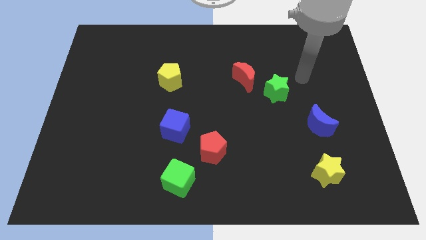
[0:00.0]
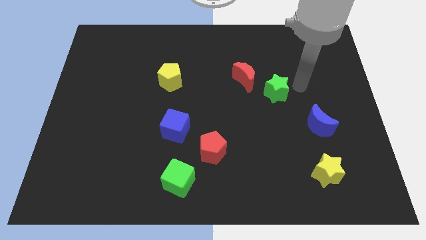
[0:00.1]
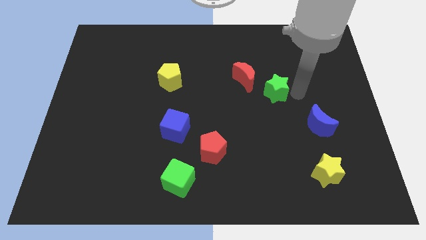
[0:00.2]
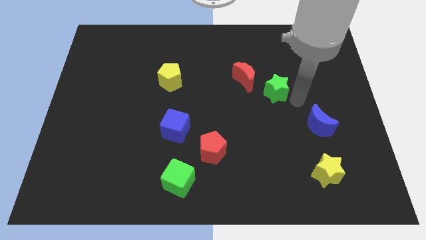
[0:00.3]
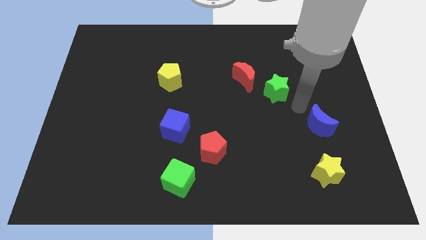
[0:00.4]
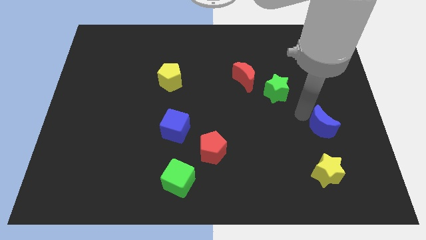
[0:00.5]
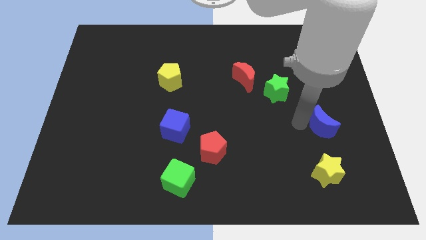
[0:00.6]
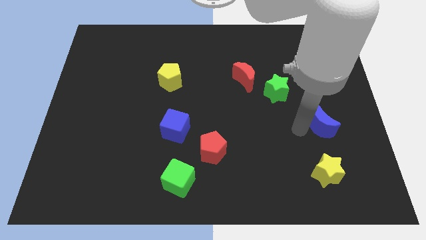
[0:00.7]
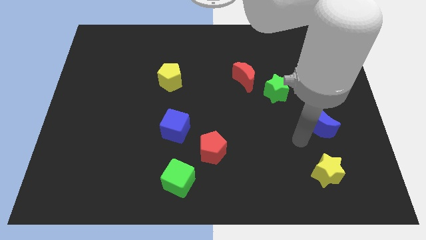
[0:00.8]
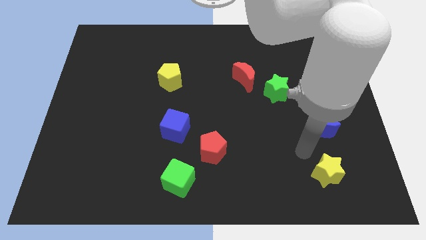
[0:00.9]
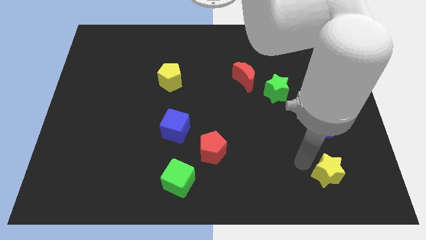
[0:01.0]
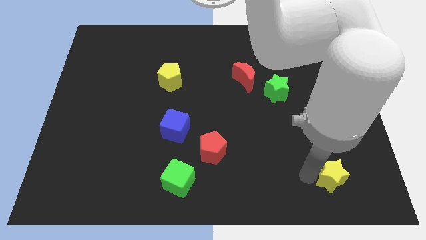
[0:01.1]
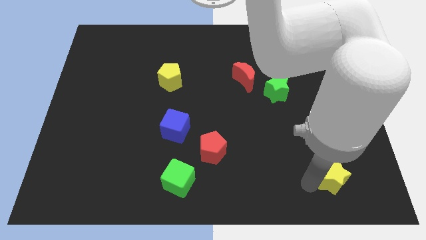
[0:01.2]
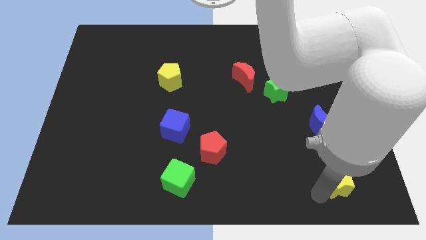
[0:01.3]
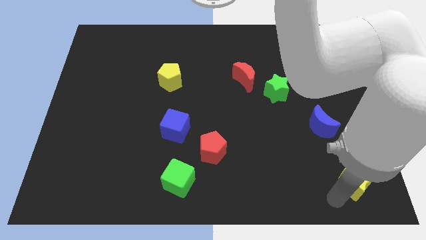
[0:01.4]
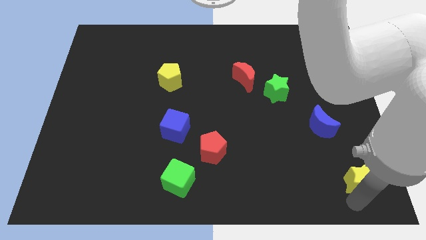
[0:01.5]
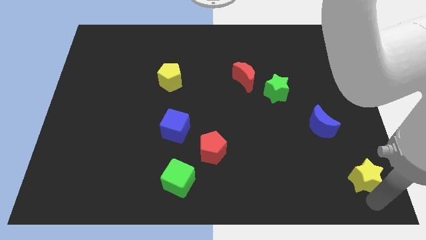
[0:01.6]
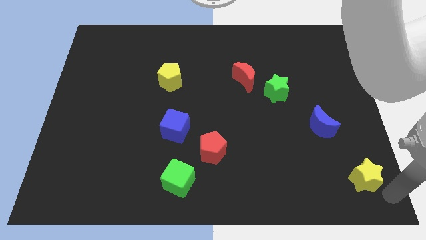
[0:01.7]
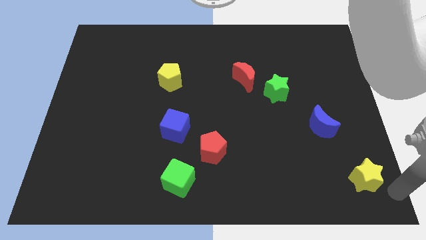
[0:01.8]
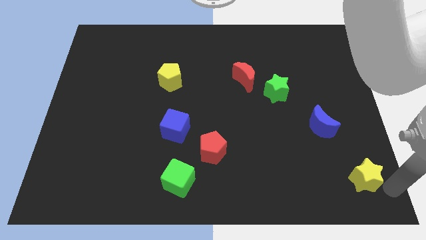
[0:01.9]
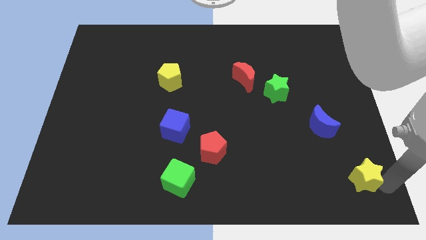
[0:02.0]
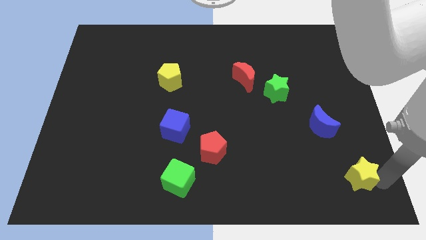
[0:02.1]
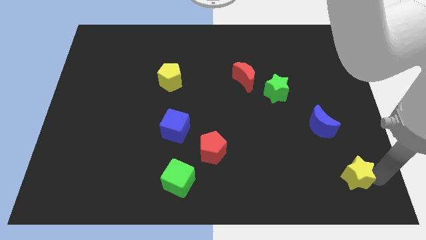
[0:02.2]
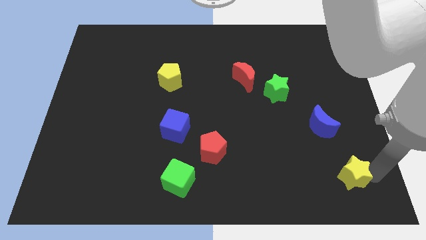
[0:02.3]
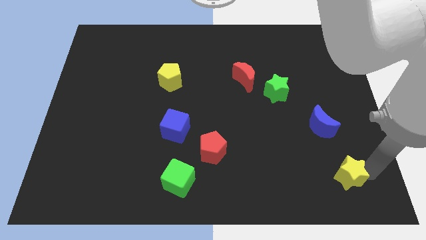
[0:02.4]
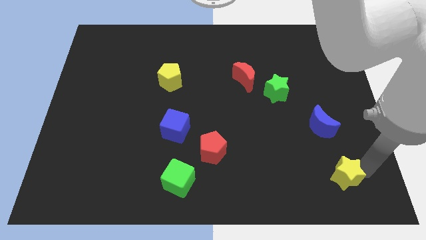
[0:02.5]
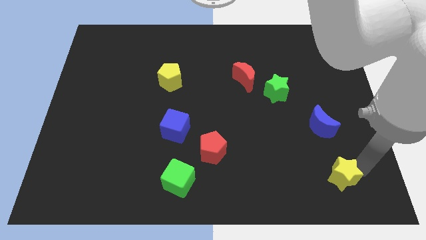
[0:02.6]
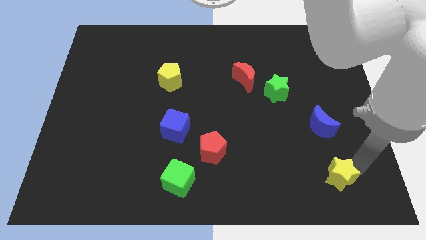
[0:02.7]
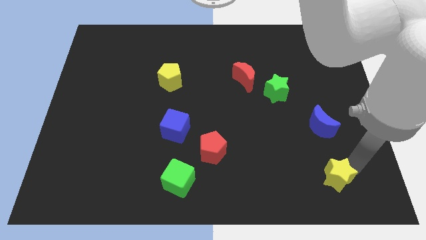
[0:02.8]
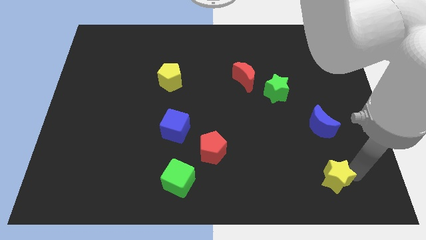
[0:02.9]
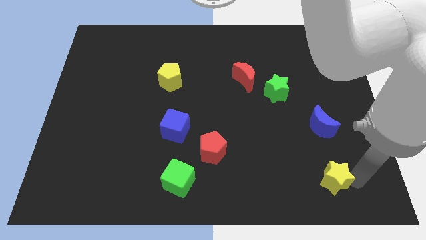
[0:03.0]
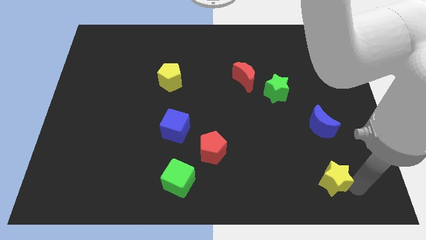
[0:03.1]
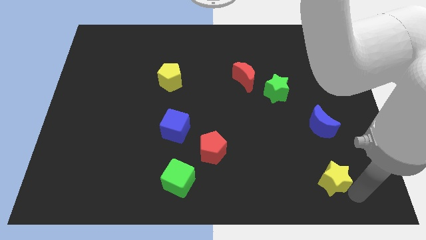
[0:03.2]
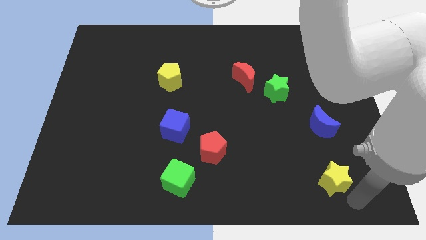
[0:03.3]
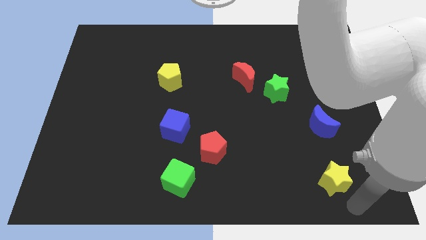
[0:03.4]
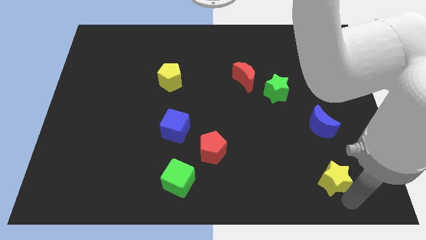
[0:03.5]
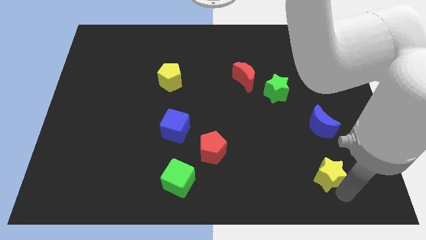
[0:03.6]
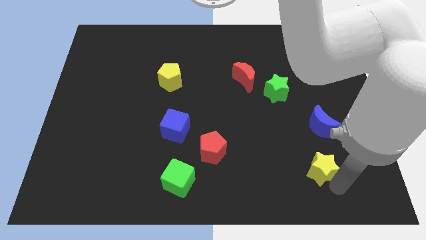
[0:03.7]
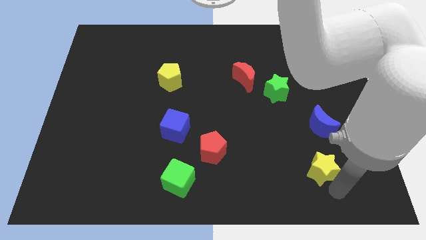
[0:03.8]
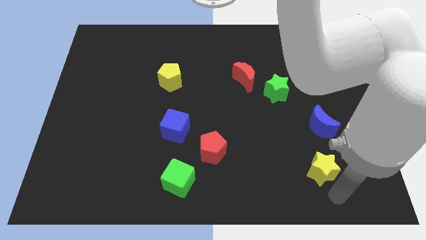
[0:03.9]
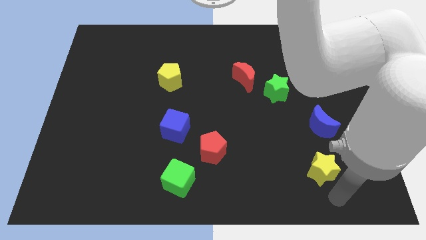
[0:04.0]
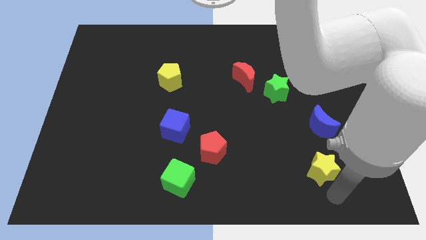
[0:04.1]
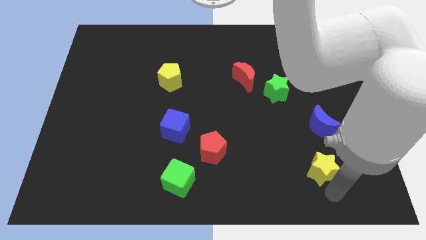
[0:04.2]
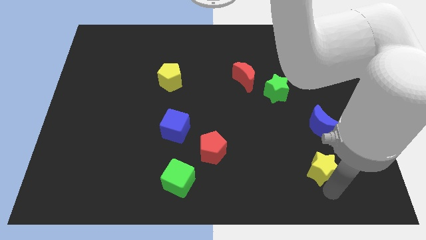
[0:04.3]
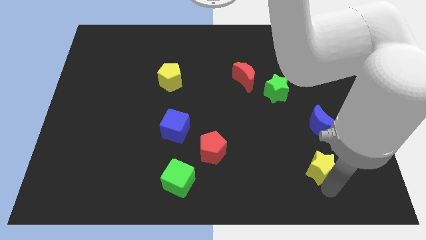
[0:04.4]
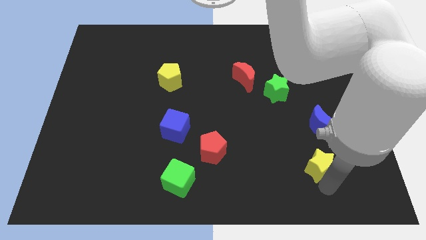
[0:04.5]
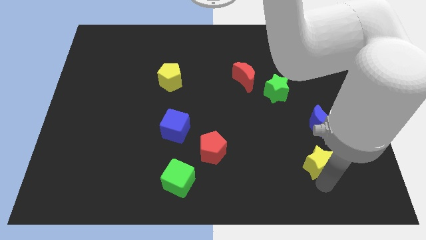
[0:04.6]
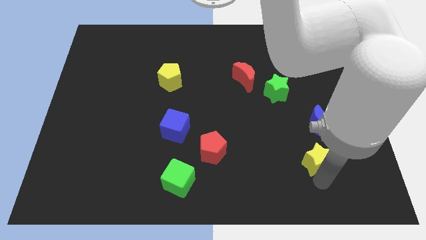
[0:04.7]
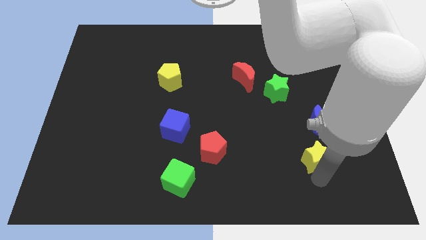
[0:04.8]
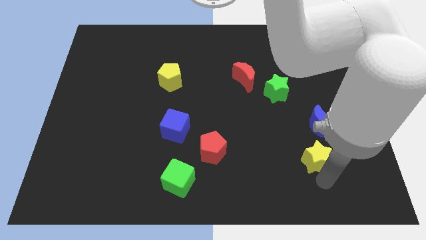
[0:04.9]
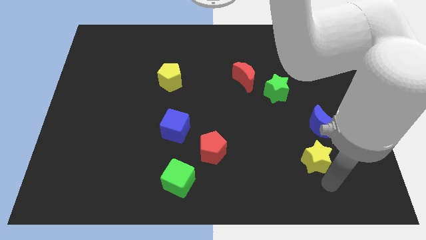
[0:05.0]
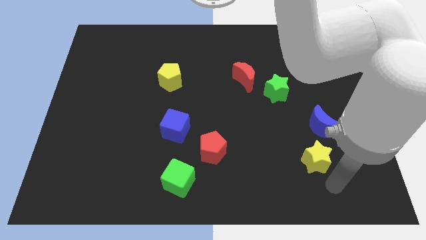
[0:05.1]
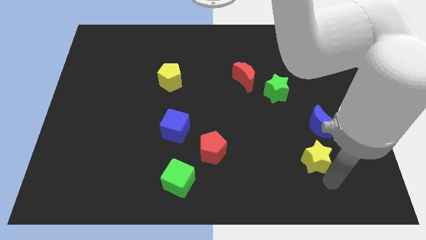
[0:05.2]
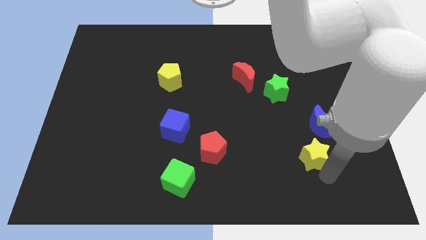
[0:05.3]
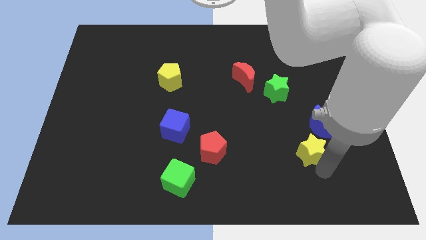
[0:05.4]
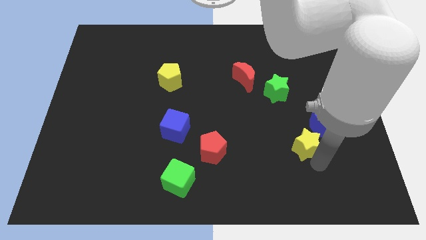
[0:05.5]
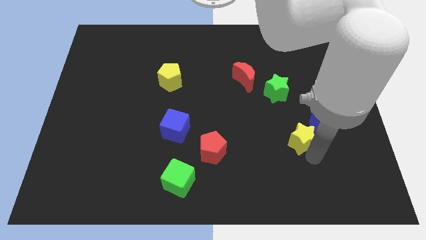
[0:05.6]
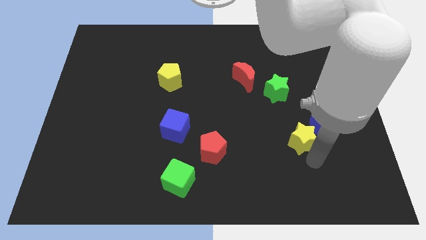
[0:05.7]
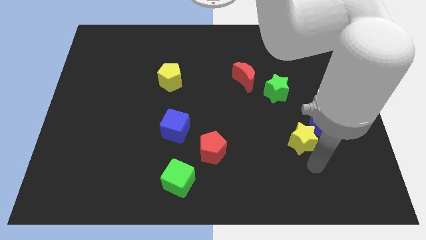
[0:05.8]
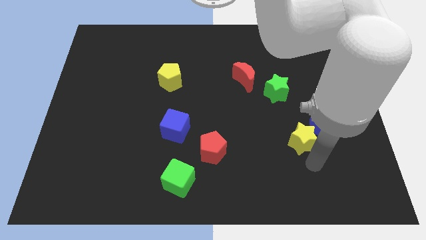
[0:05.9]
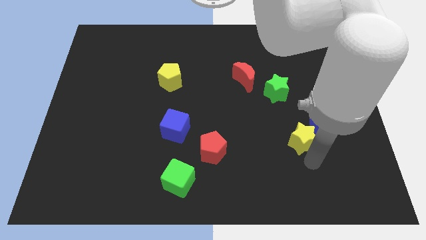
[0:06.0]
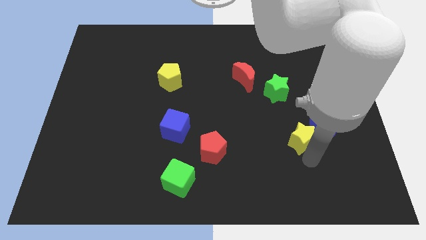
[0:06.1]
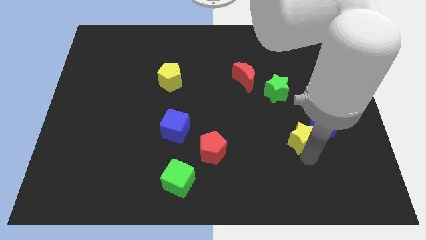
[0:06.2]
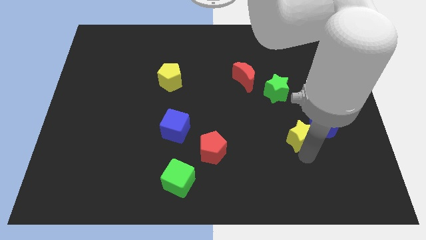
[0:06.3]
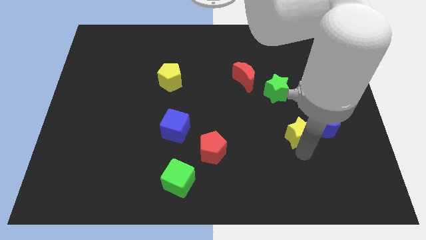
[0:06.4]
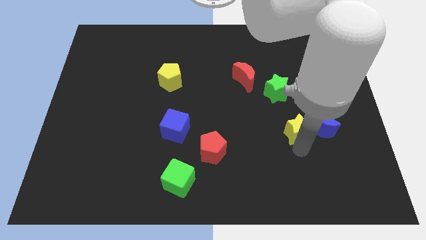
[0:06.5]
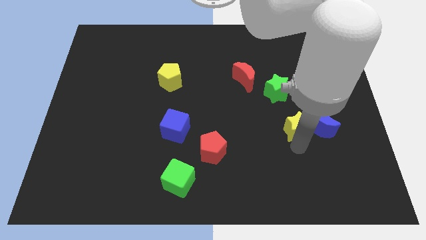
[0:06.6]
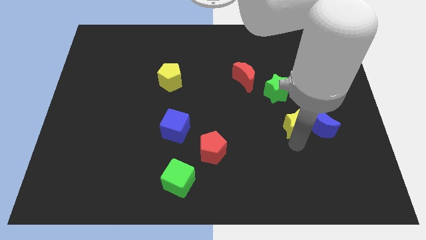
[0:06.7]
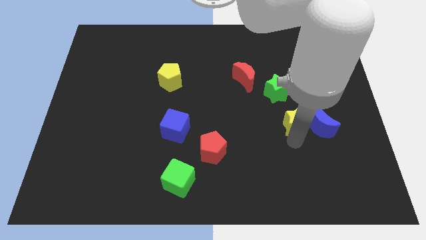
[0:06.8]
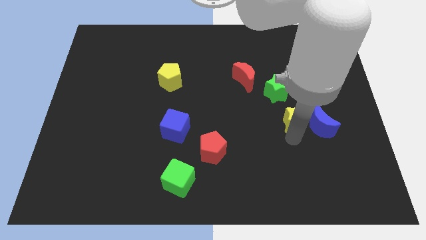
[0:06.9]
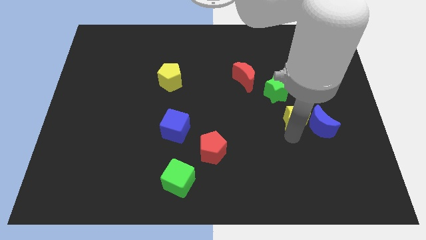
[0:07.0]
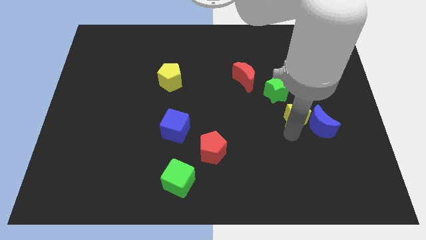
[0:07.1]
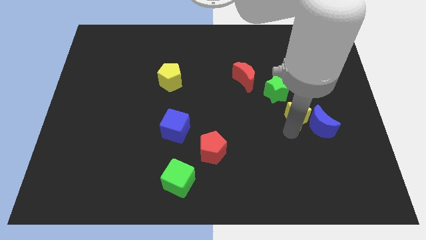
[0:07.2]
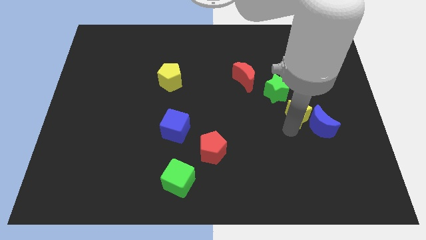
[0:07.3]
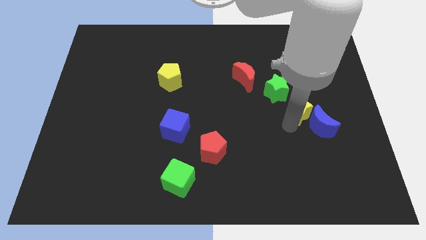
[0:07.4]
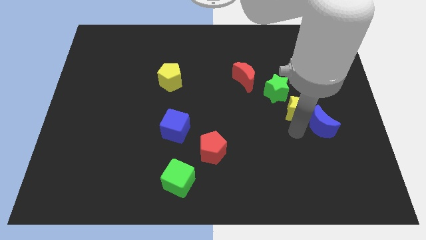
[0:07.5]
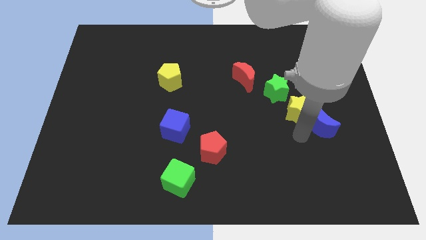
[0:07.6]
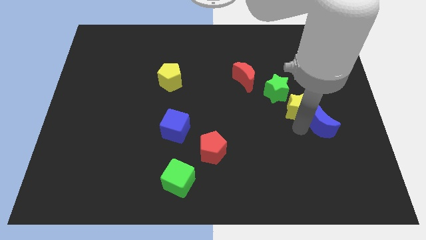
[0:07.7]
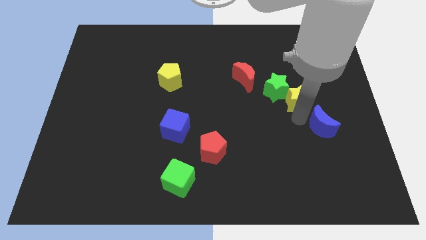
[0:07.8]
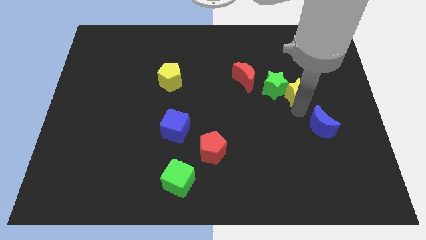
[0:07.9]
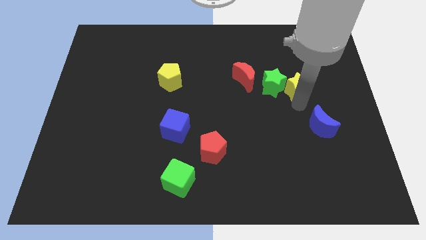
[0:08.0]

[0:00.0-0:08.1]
move the yellow star to the top right side of the green star

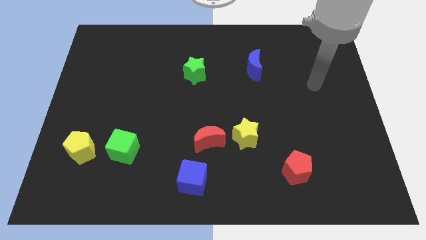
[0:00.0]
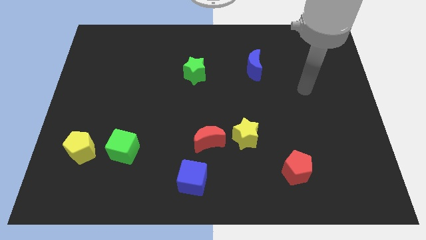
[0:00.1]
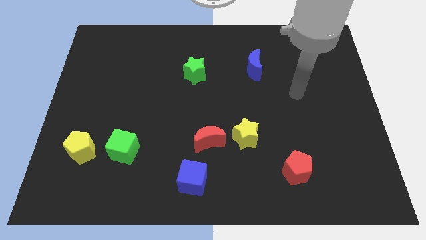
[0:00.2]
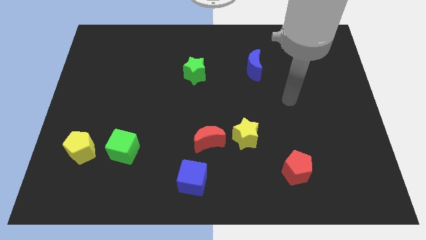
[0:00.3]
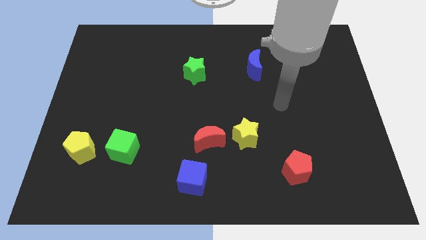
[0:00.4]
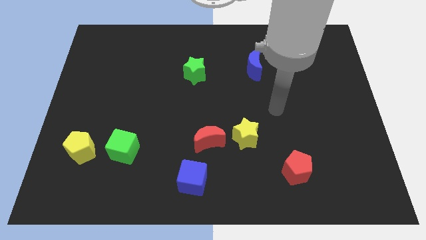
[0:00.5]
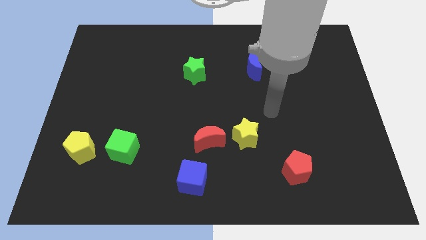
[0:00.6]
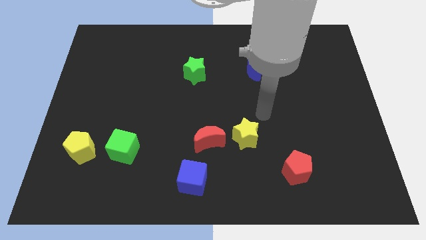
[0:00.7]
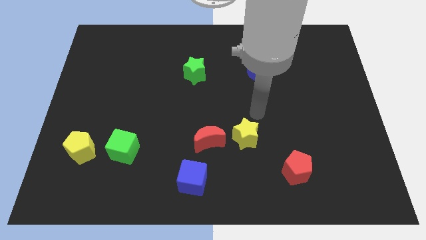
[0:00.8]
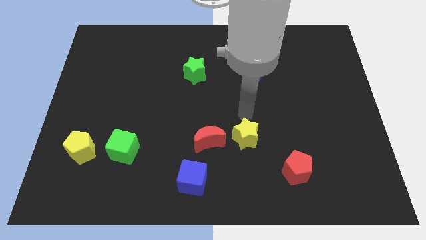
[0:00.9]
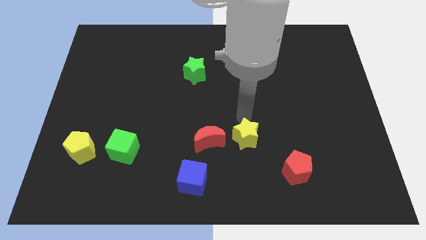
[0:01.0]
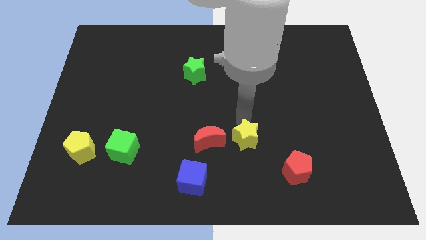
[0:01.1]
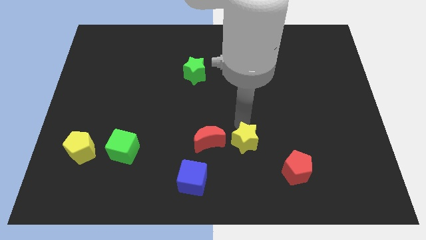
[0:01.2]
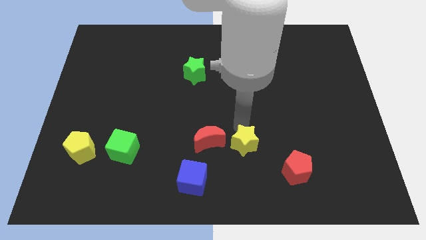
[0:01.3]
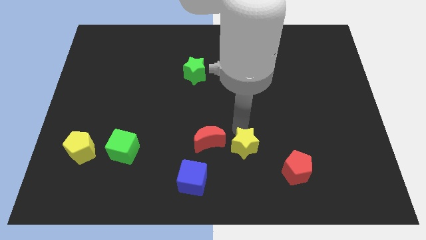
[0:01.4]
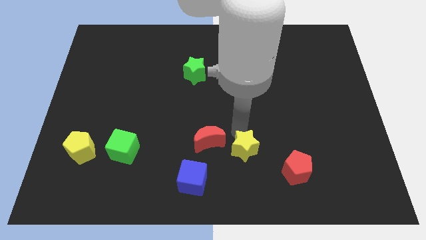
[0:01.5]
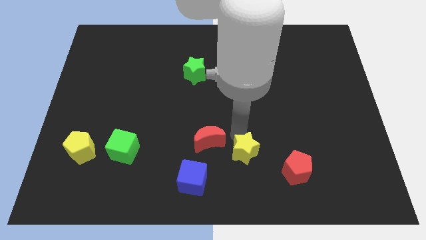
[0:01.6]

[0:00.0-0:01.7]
push the yellow star to the left side of the red pentagon
